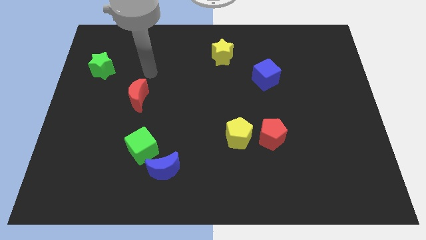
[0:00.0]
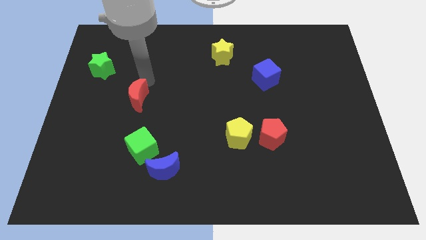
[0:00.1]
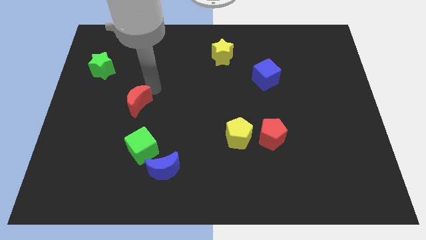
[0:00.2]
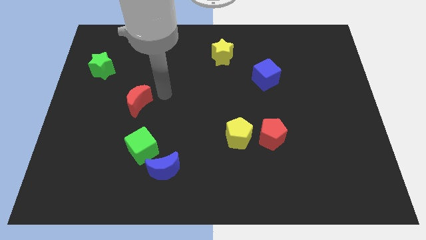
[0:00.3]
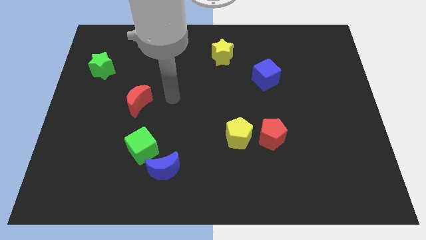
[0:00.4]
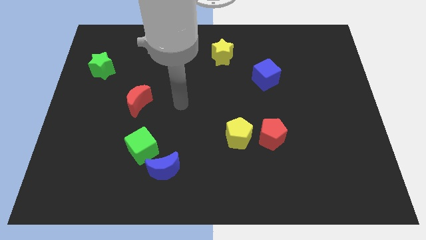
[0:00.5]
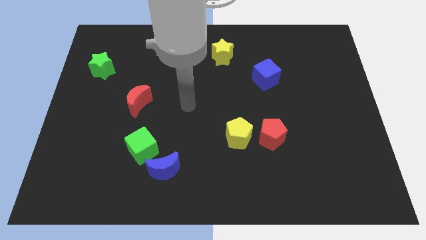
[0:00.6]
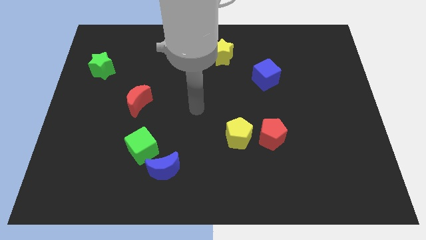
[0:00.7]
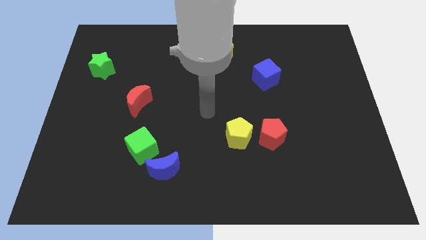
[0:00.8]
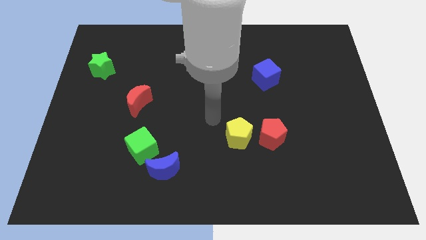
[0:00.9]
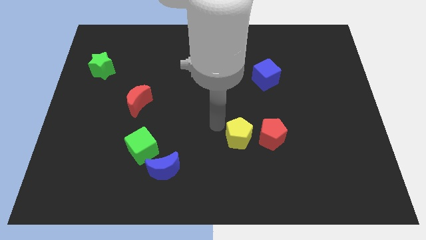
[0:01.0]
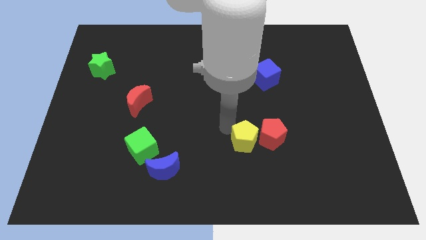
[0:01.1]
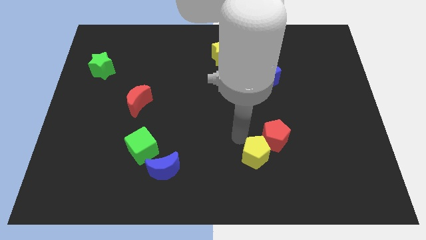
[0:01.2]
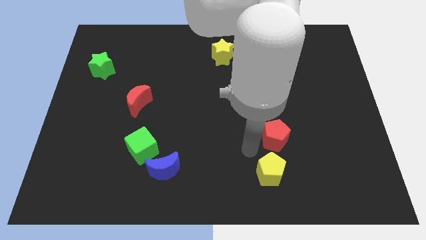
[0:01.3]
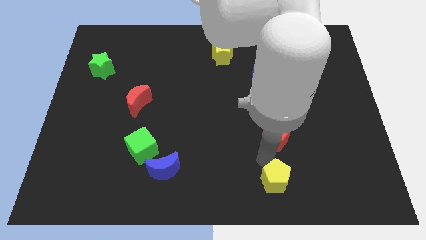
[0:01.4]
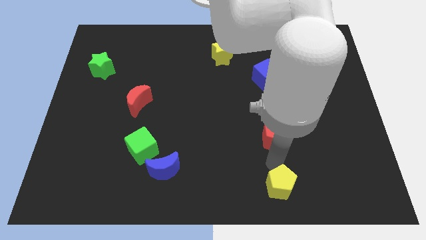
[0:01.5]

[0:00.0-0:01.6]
move the red pentagon away from the yellow pentagon

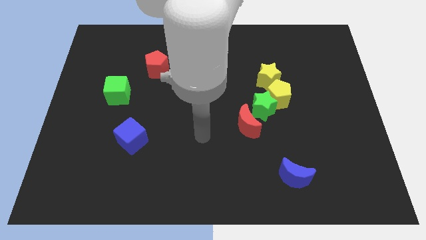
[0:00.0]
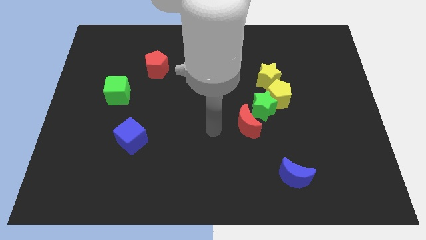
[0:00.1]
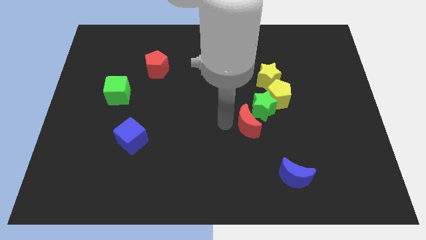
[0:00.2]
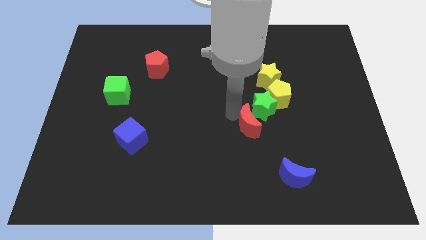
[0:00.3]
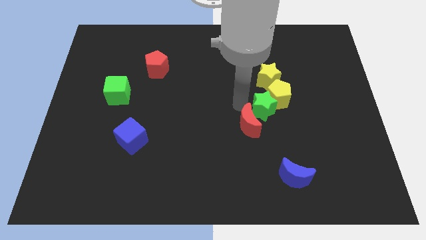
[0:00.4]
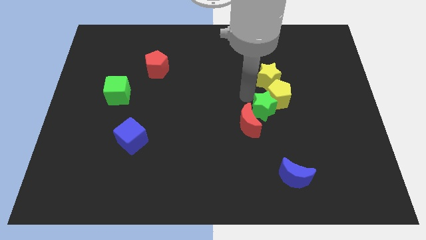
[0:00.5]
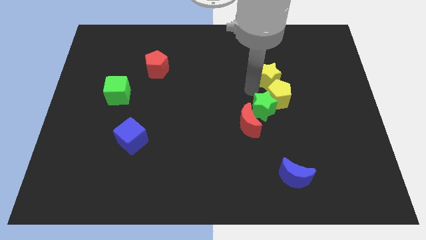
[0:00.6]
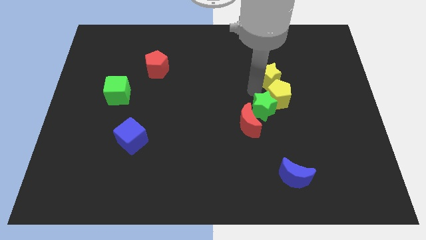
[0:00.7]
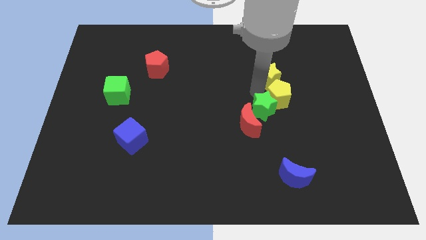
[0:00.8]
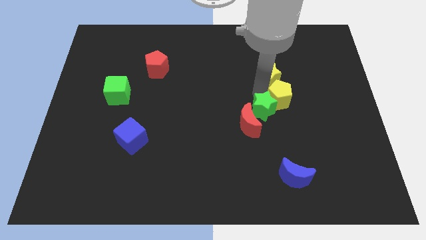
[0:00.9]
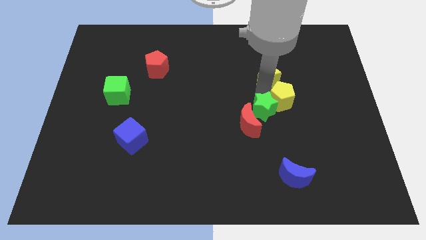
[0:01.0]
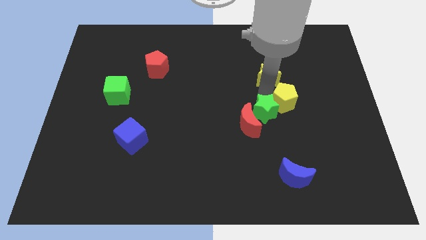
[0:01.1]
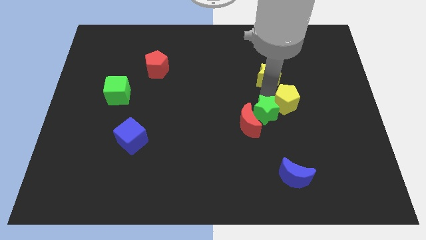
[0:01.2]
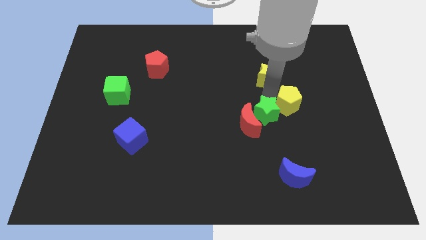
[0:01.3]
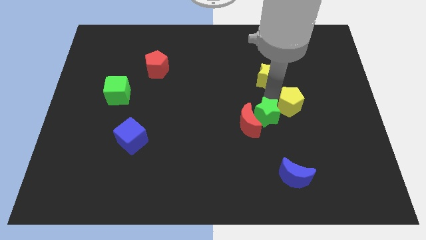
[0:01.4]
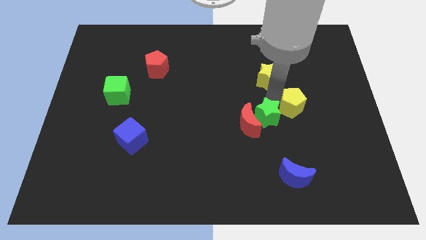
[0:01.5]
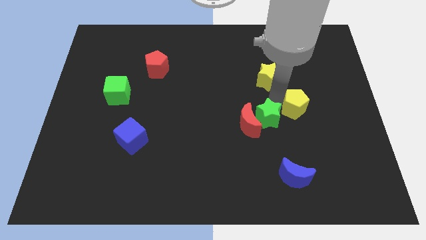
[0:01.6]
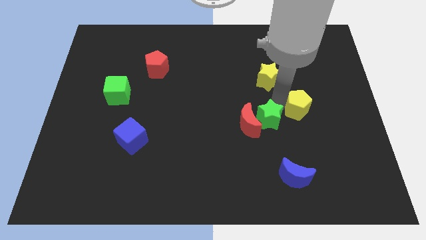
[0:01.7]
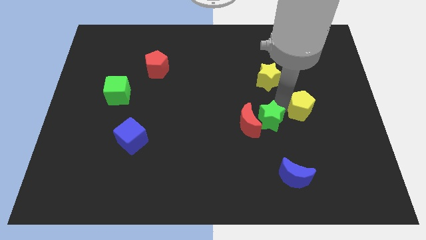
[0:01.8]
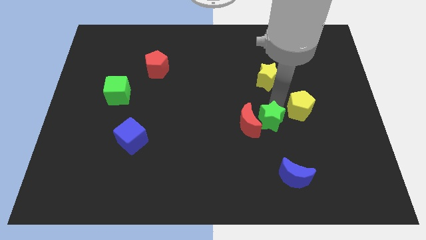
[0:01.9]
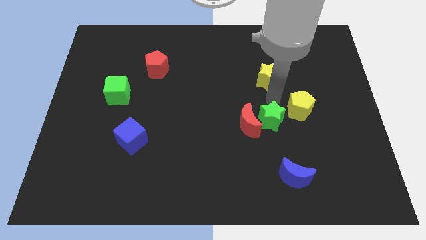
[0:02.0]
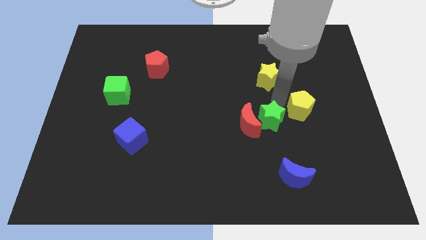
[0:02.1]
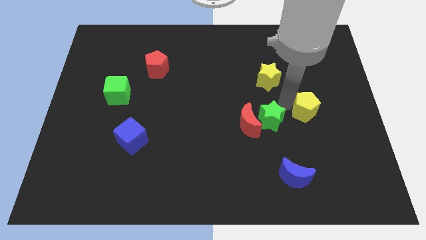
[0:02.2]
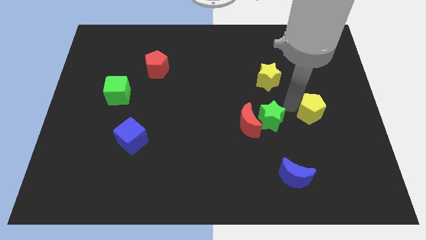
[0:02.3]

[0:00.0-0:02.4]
separate the yellow pentagon from the green star and yellow star

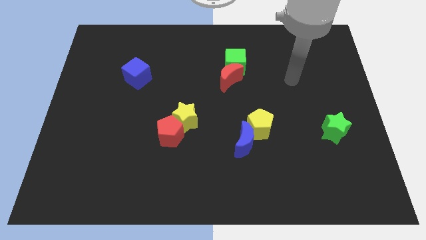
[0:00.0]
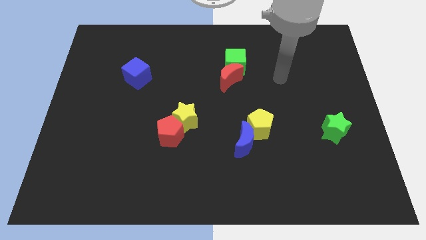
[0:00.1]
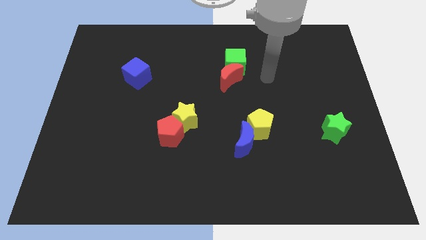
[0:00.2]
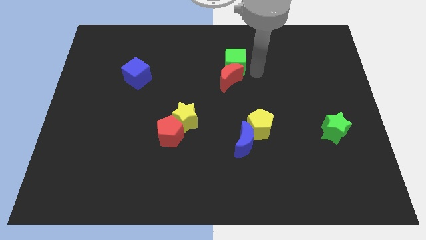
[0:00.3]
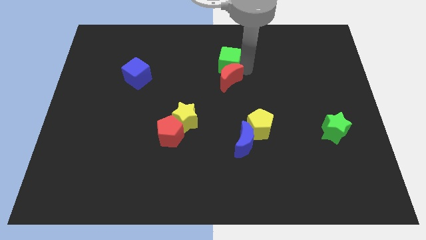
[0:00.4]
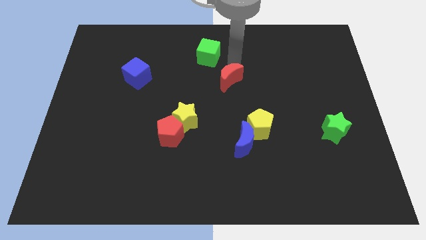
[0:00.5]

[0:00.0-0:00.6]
pull the red moon apart from the green cube

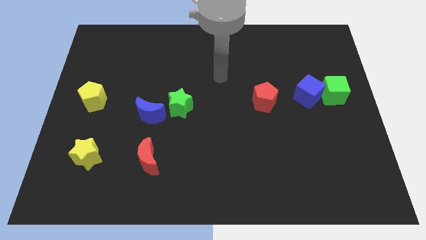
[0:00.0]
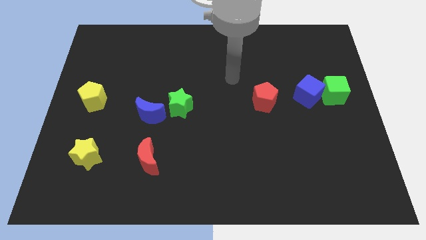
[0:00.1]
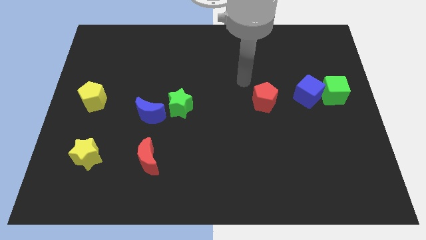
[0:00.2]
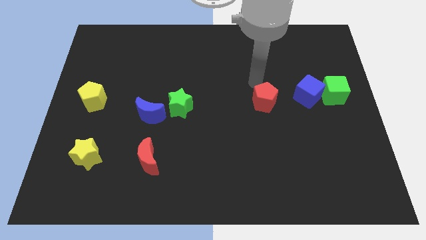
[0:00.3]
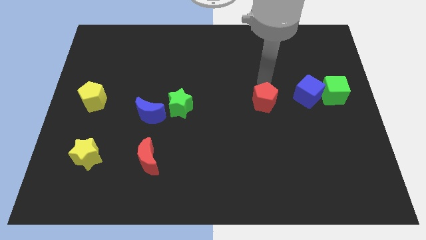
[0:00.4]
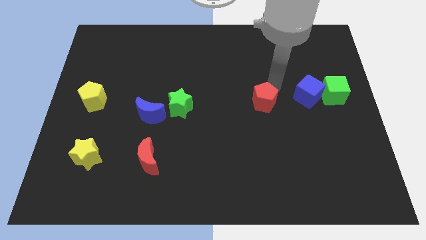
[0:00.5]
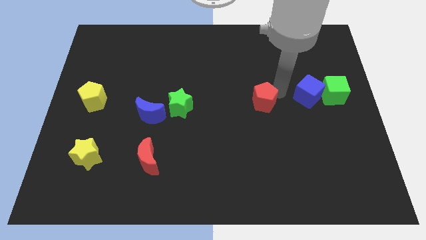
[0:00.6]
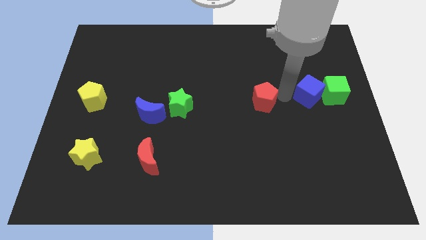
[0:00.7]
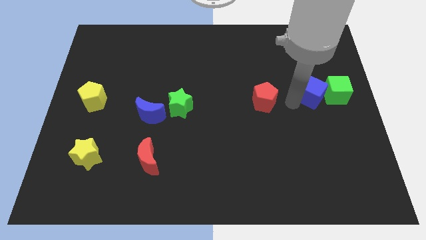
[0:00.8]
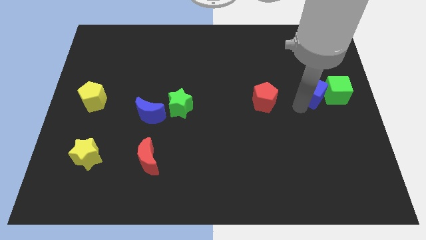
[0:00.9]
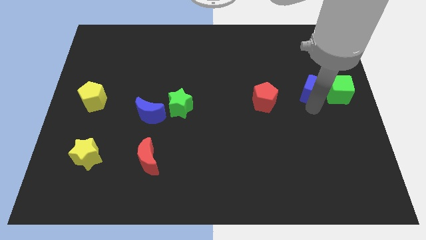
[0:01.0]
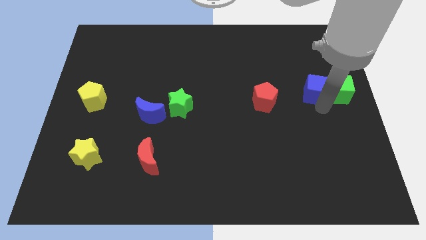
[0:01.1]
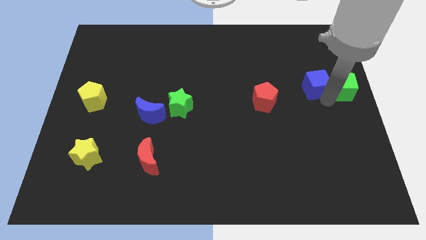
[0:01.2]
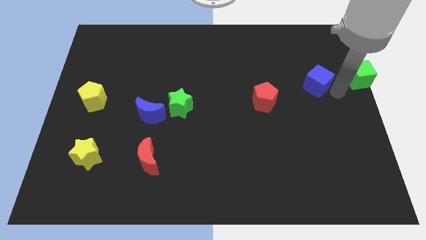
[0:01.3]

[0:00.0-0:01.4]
move the blue cube away from the green cube

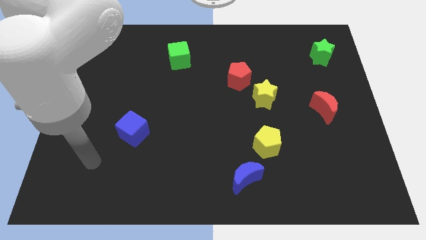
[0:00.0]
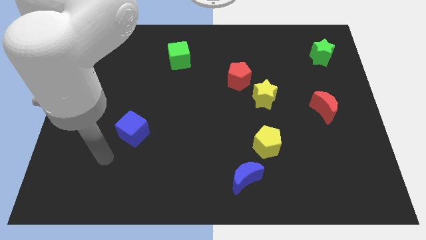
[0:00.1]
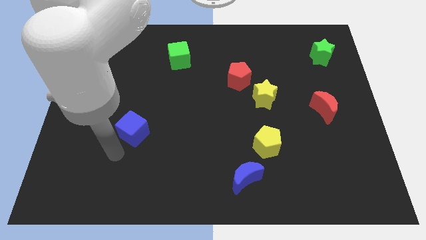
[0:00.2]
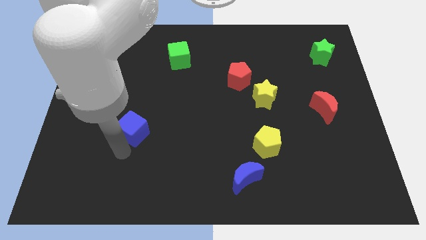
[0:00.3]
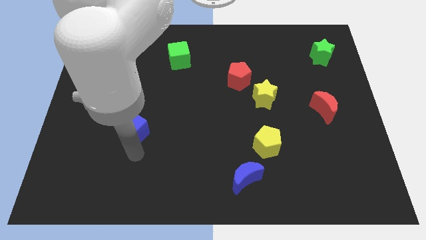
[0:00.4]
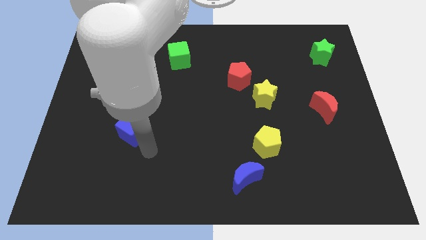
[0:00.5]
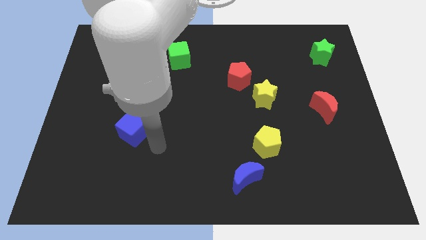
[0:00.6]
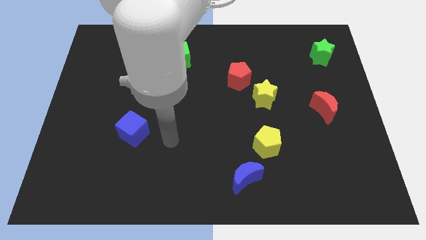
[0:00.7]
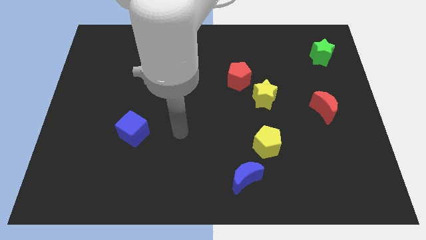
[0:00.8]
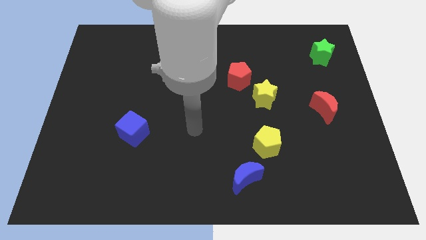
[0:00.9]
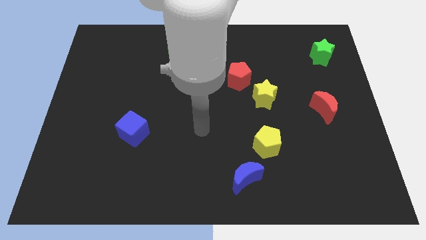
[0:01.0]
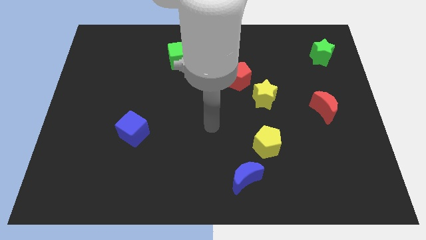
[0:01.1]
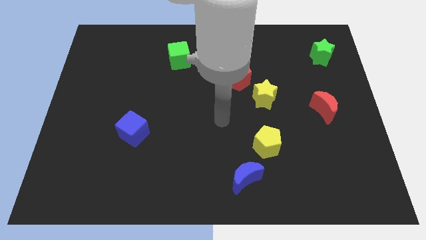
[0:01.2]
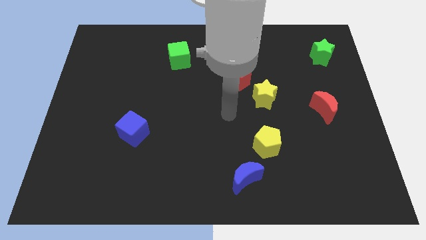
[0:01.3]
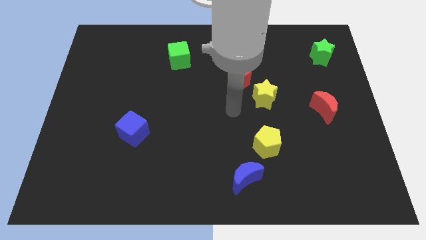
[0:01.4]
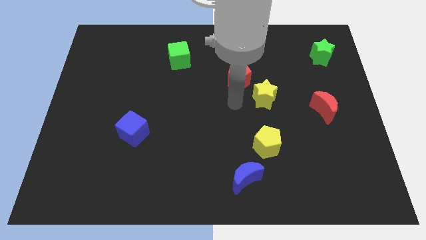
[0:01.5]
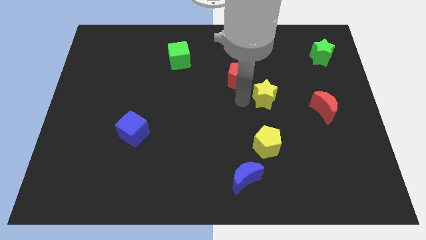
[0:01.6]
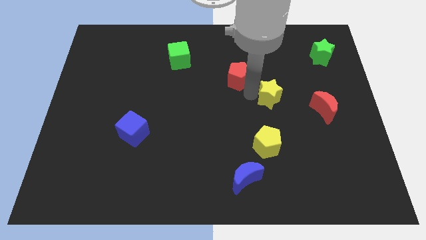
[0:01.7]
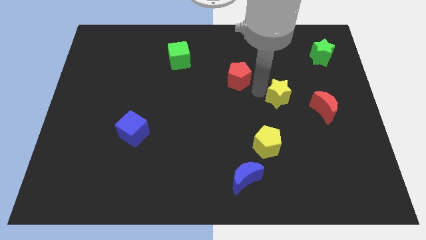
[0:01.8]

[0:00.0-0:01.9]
separate the red pentagon from the yellow star

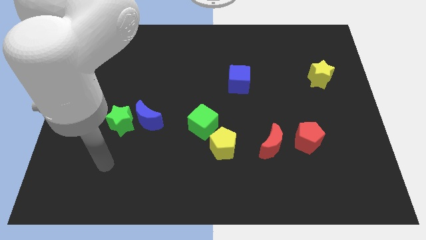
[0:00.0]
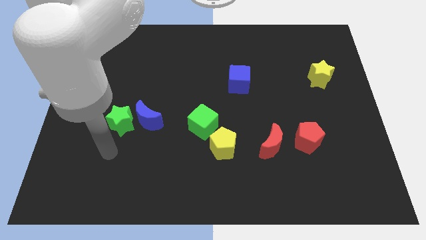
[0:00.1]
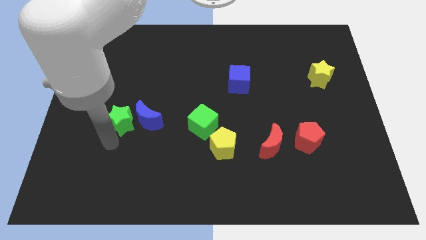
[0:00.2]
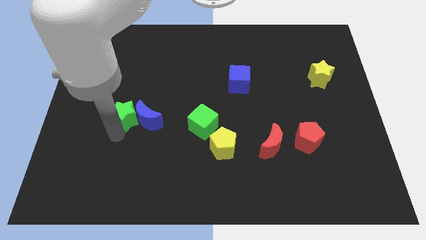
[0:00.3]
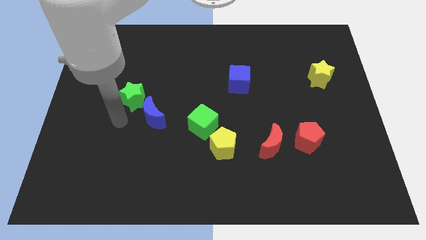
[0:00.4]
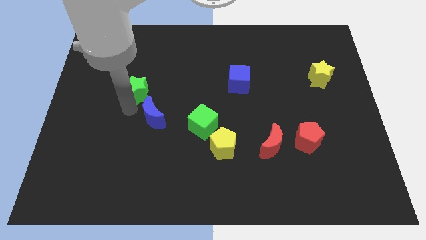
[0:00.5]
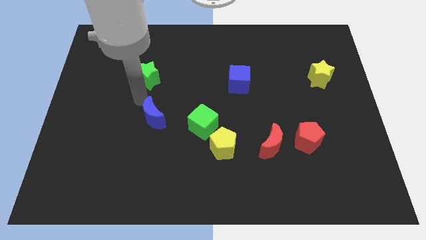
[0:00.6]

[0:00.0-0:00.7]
pull the blue moon apart from the green star

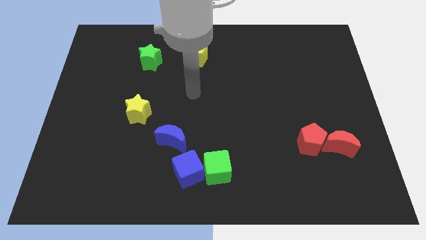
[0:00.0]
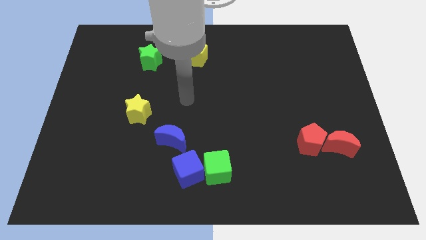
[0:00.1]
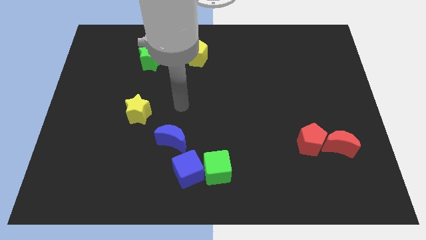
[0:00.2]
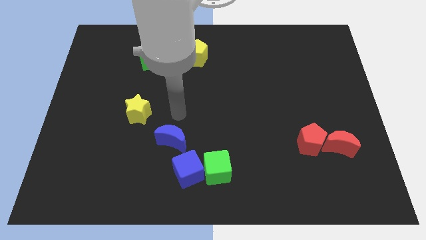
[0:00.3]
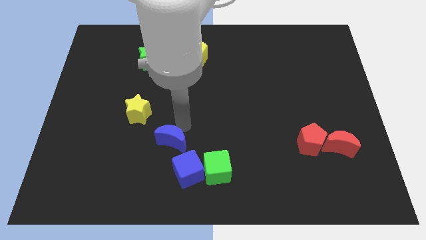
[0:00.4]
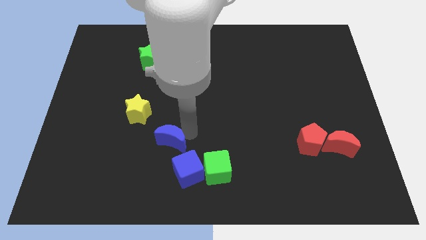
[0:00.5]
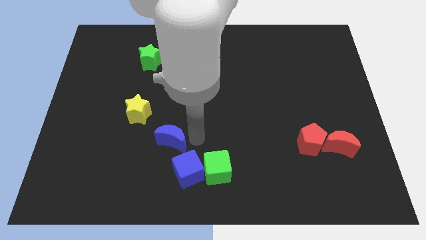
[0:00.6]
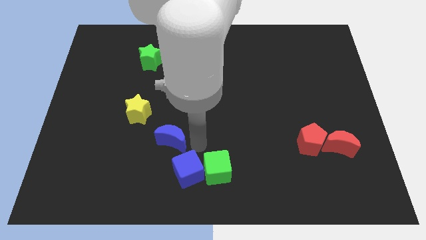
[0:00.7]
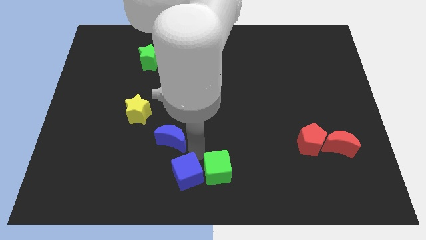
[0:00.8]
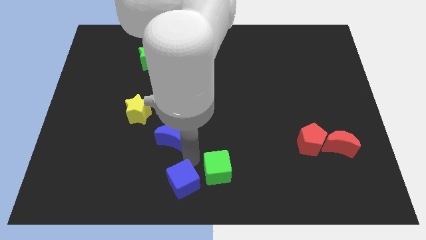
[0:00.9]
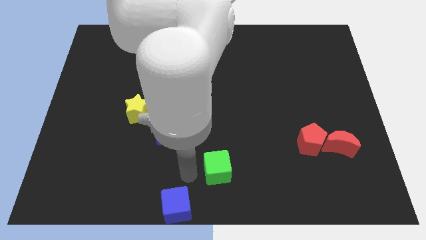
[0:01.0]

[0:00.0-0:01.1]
pull the green cube apart from the blue cube
